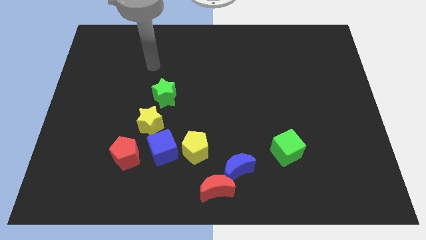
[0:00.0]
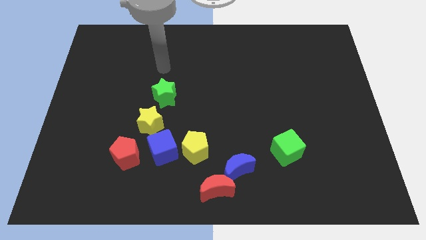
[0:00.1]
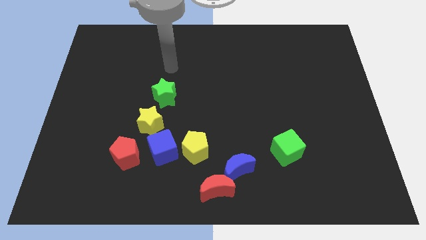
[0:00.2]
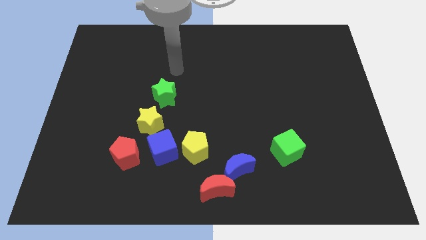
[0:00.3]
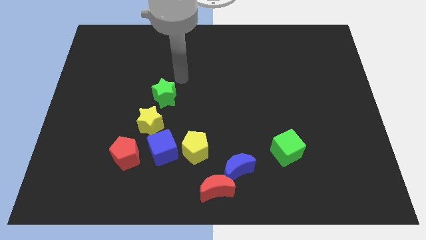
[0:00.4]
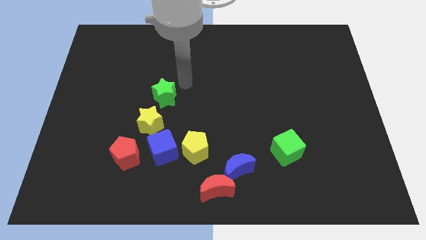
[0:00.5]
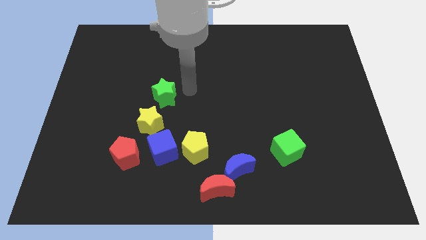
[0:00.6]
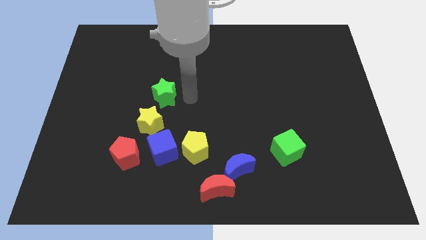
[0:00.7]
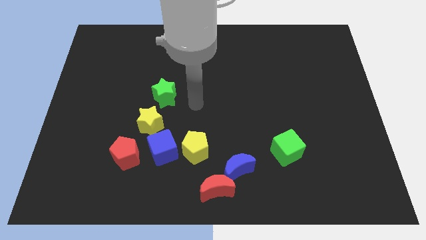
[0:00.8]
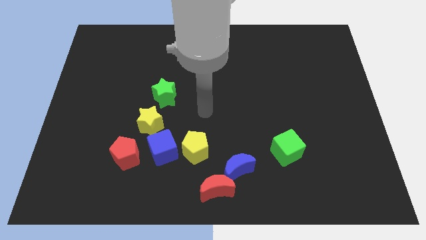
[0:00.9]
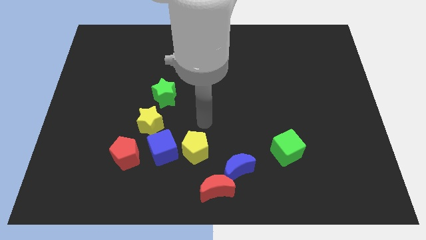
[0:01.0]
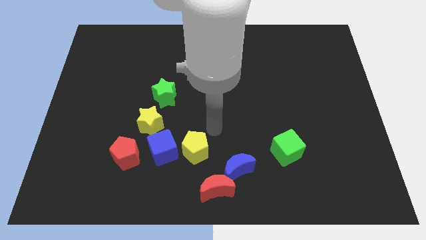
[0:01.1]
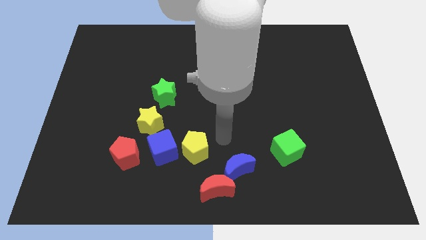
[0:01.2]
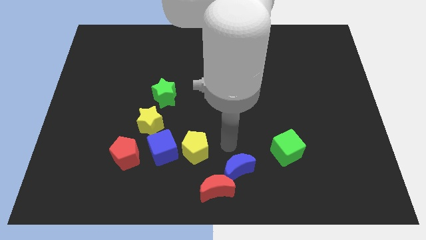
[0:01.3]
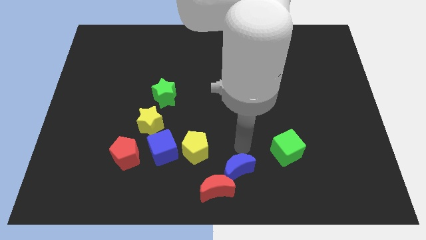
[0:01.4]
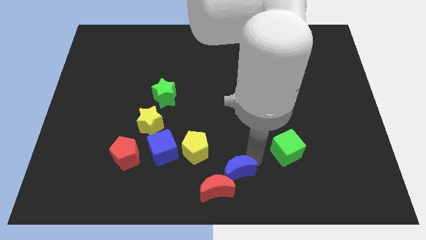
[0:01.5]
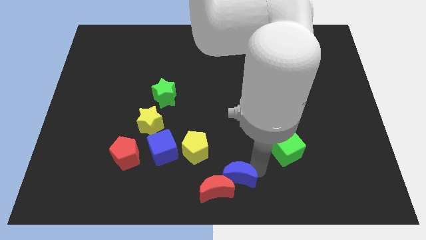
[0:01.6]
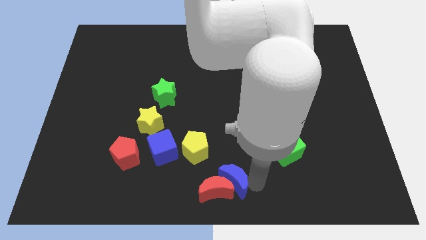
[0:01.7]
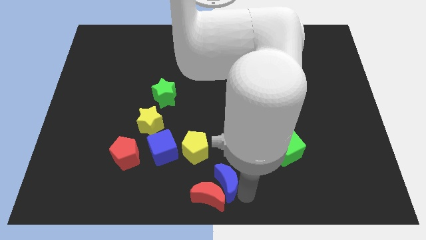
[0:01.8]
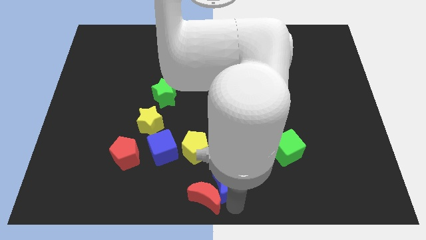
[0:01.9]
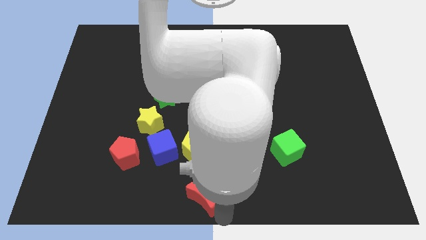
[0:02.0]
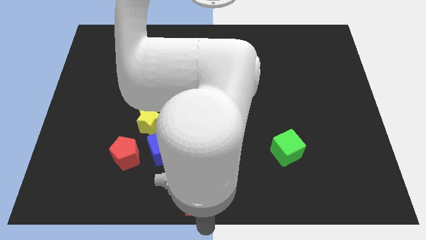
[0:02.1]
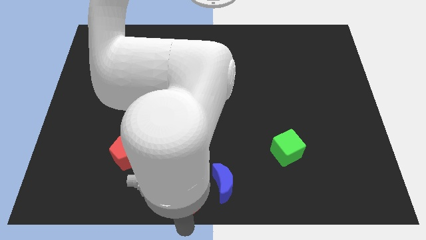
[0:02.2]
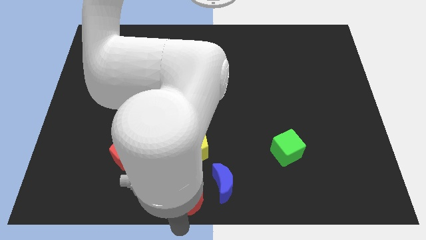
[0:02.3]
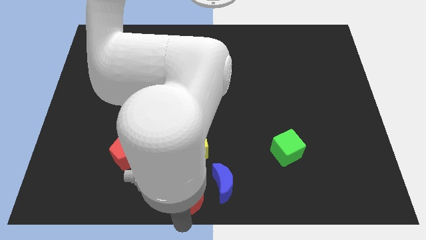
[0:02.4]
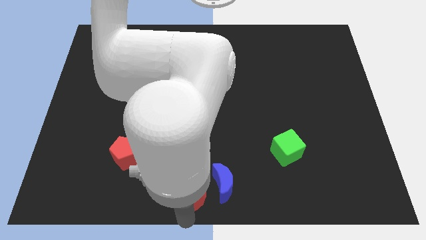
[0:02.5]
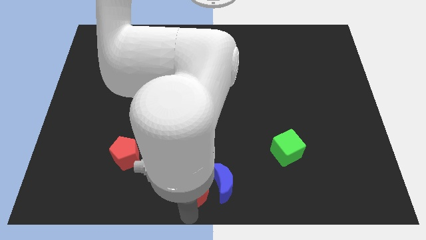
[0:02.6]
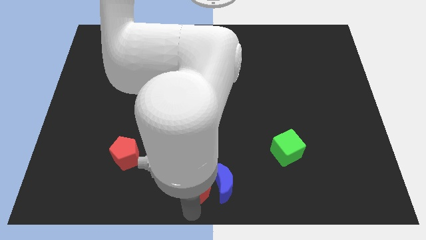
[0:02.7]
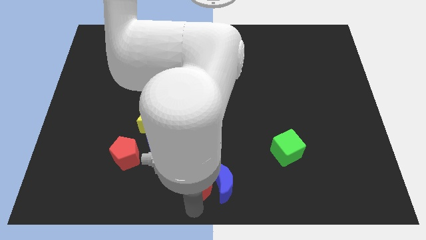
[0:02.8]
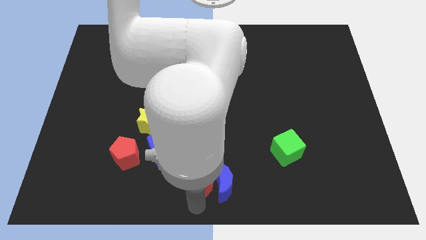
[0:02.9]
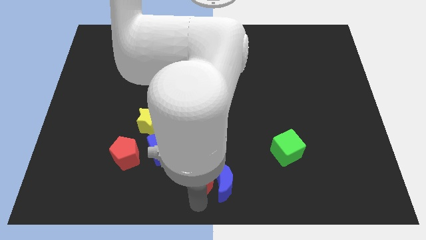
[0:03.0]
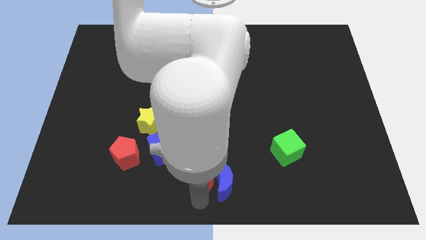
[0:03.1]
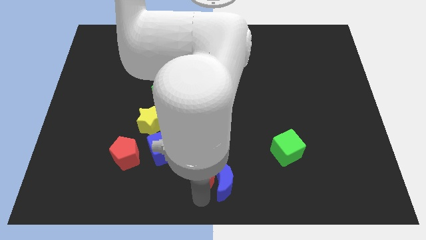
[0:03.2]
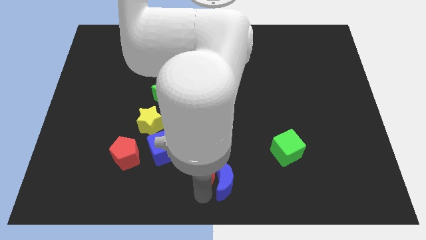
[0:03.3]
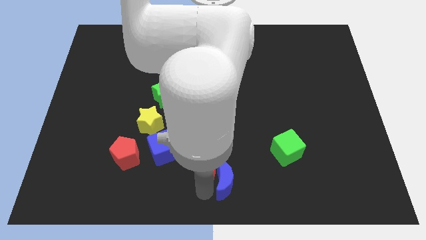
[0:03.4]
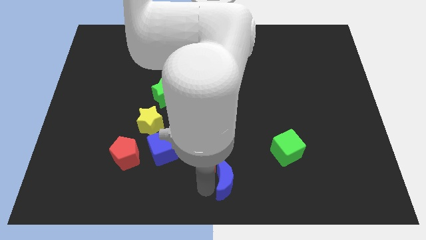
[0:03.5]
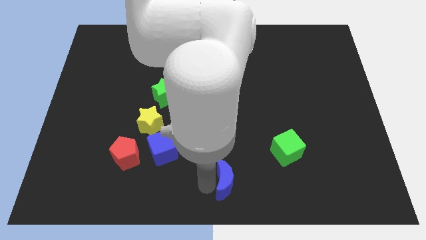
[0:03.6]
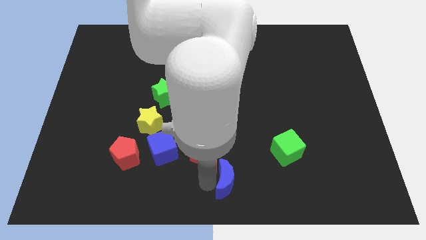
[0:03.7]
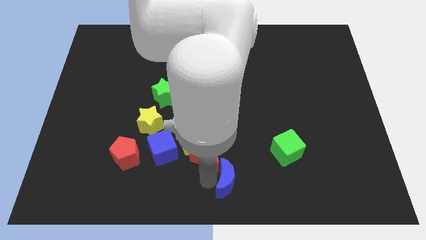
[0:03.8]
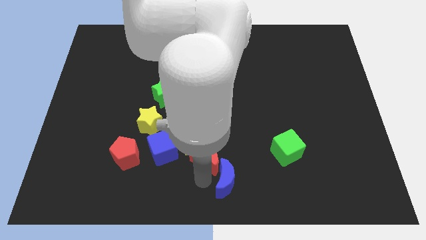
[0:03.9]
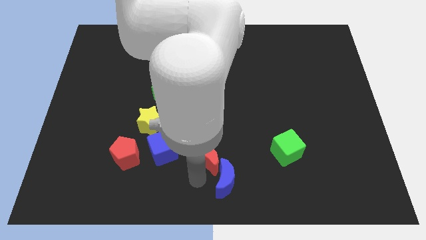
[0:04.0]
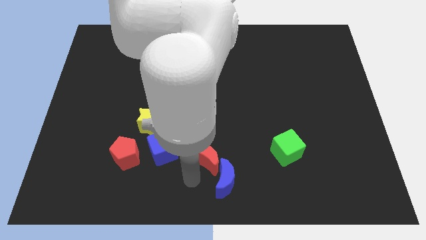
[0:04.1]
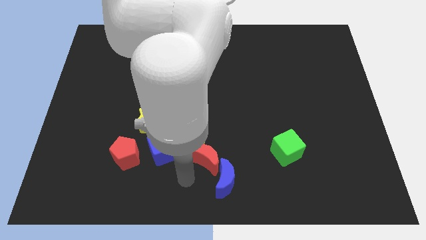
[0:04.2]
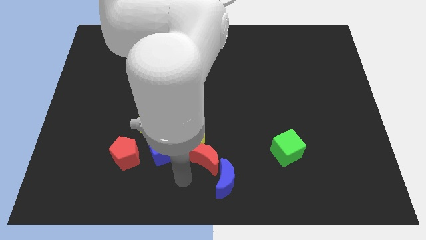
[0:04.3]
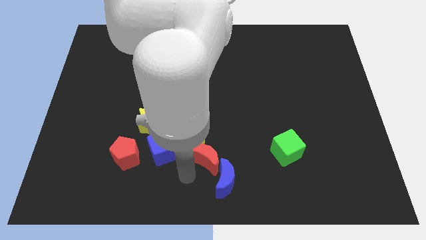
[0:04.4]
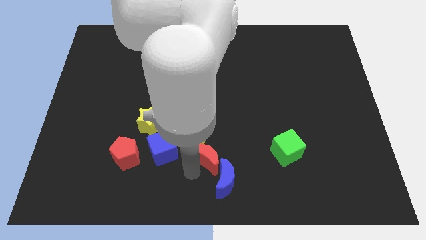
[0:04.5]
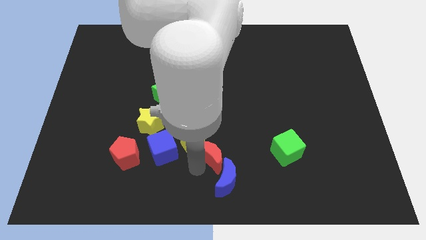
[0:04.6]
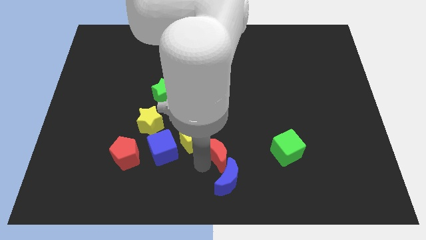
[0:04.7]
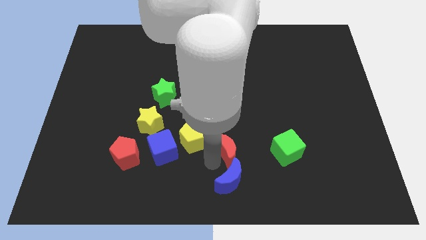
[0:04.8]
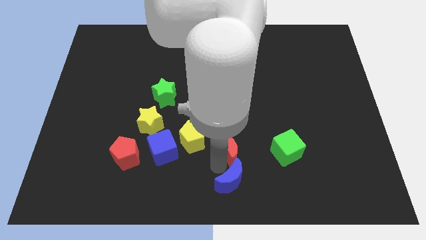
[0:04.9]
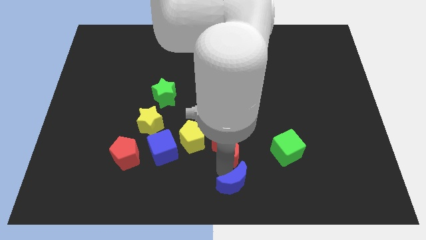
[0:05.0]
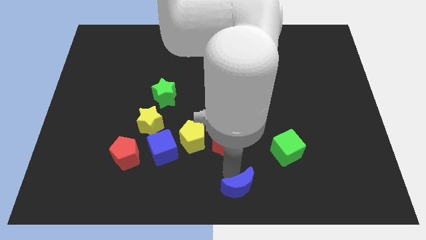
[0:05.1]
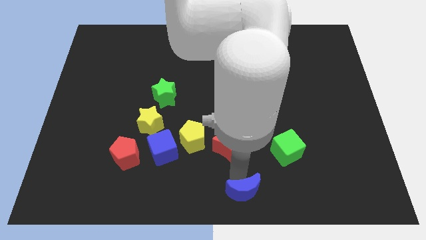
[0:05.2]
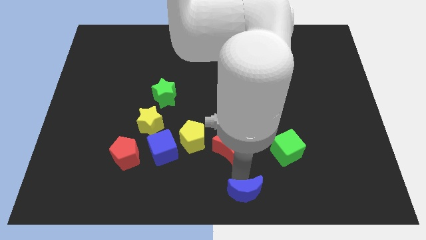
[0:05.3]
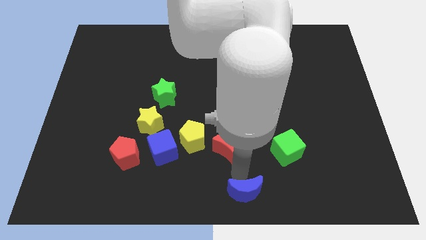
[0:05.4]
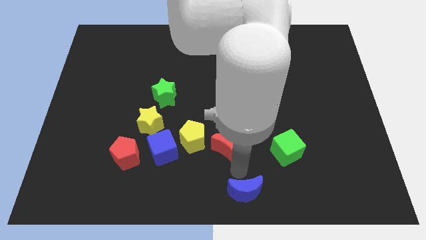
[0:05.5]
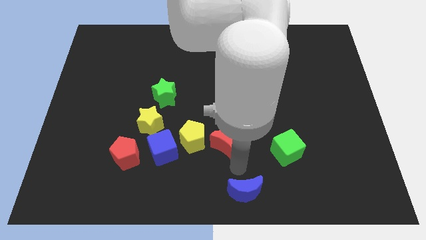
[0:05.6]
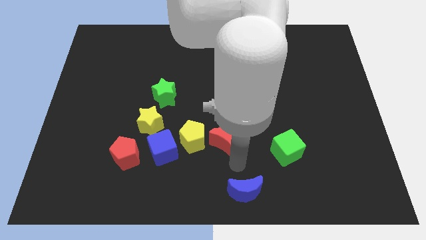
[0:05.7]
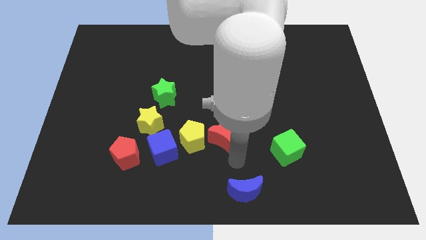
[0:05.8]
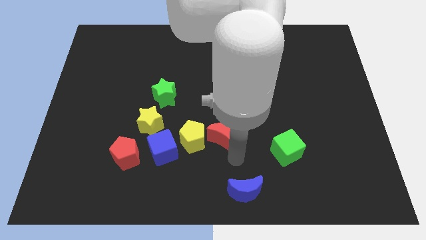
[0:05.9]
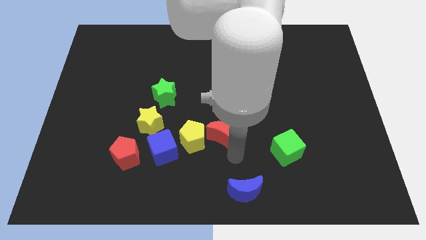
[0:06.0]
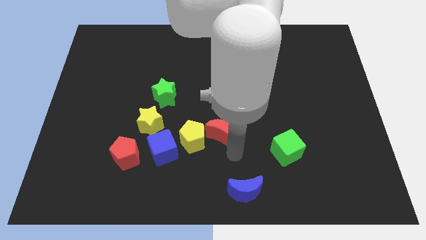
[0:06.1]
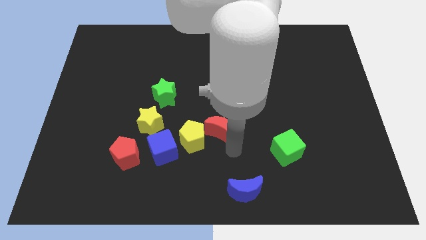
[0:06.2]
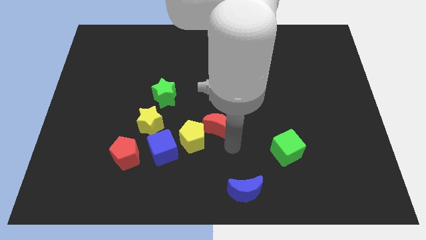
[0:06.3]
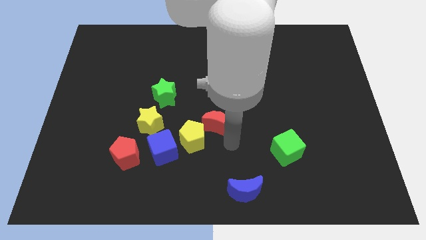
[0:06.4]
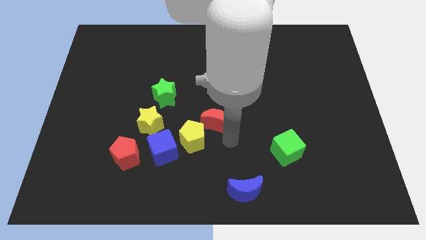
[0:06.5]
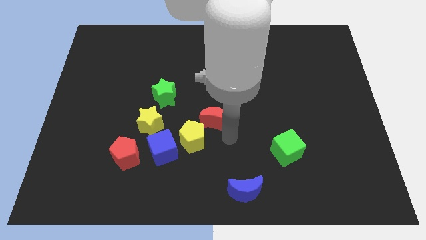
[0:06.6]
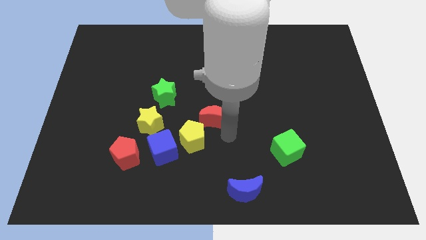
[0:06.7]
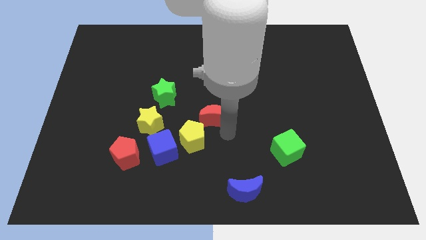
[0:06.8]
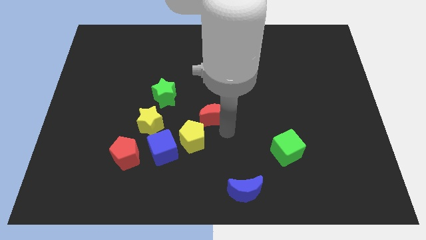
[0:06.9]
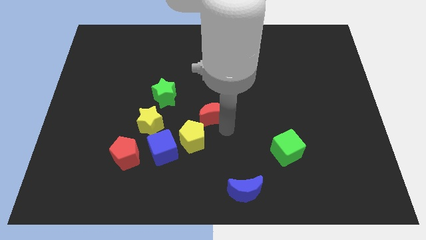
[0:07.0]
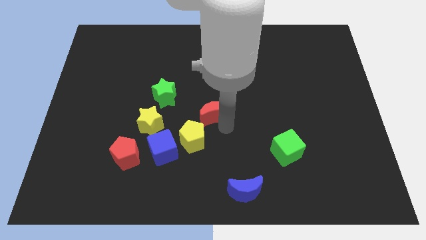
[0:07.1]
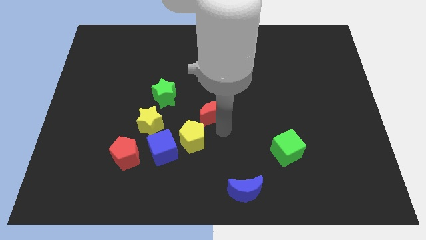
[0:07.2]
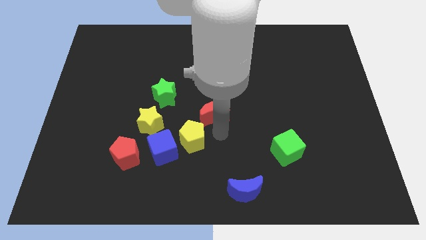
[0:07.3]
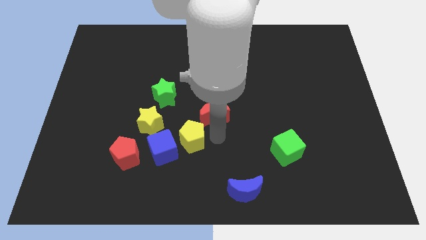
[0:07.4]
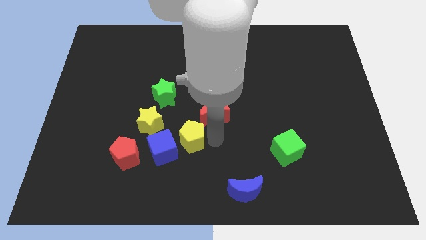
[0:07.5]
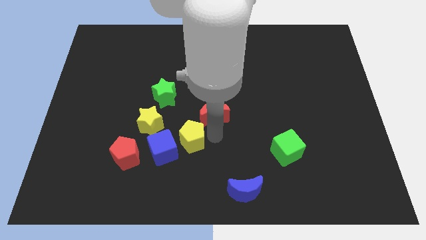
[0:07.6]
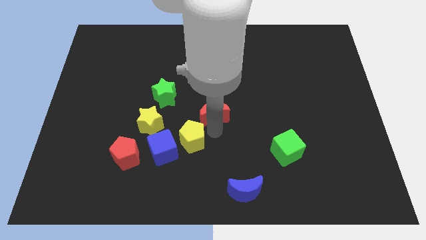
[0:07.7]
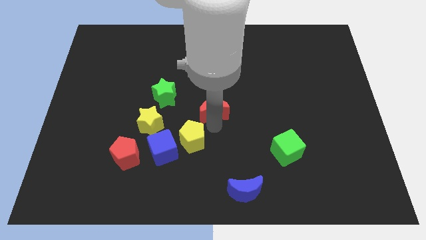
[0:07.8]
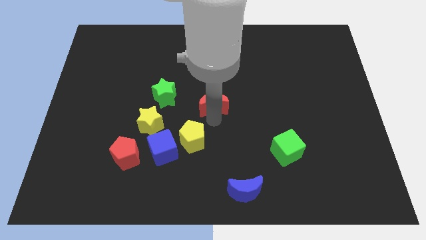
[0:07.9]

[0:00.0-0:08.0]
move the red moon upwards
